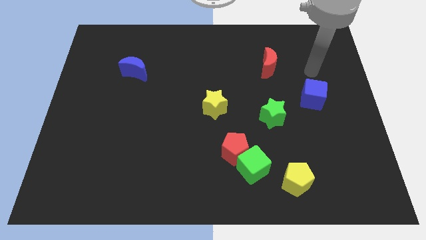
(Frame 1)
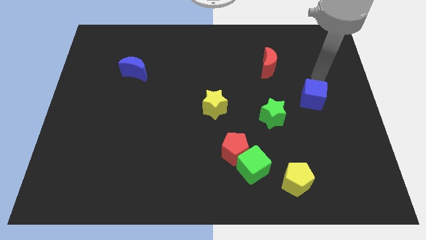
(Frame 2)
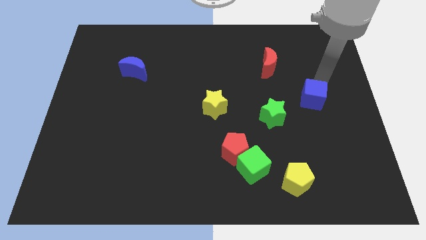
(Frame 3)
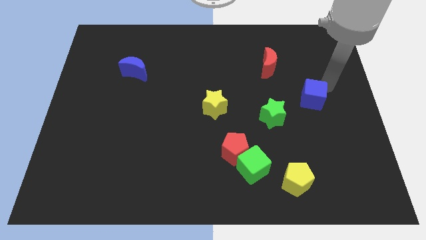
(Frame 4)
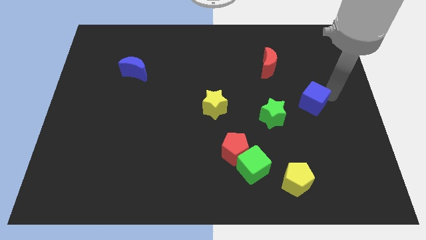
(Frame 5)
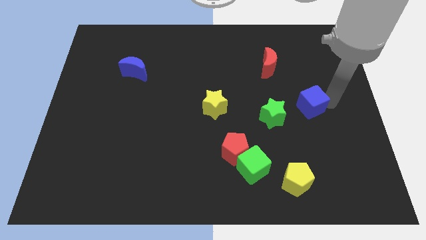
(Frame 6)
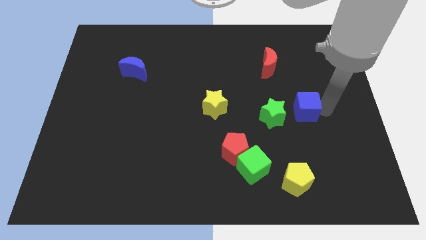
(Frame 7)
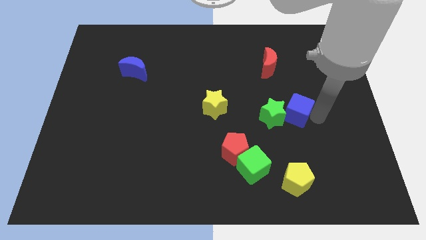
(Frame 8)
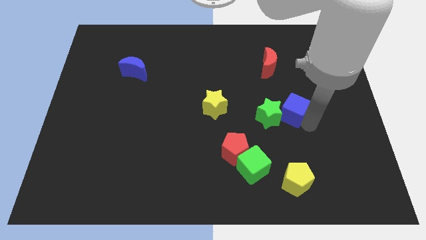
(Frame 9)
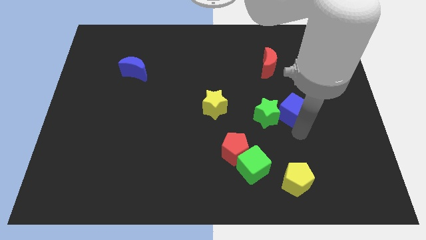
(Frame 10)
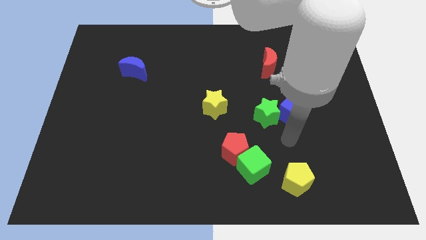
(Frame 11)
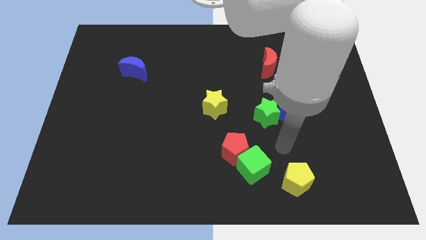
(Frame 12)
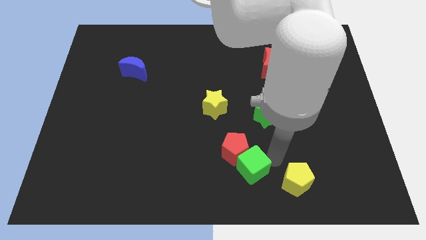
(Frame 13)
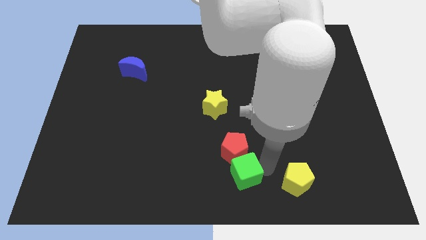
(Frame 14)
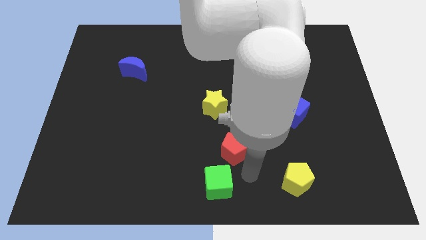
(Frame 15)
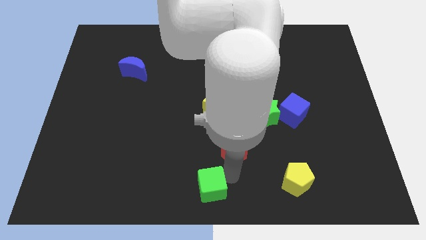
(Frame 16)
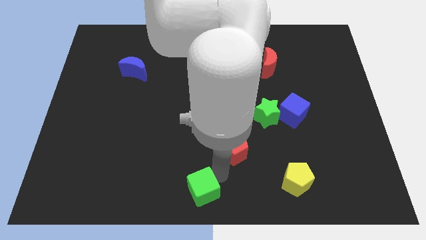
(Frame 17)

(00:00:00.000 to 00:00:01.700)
pull the red pentagon apart from the green cube

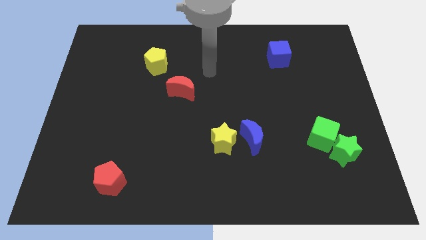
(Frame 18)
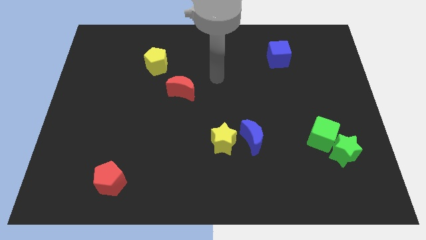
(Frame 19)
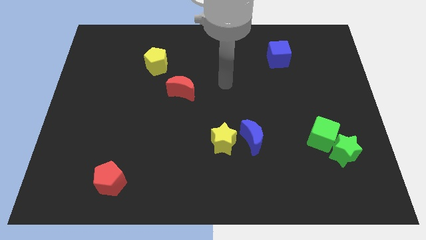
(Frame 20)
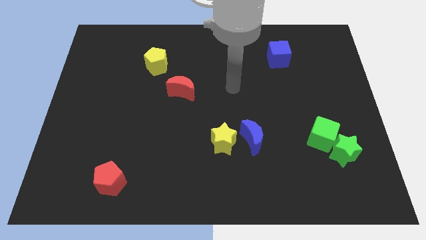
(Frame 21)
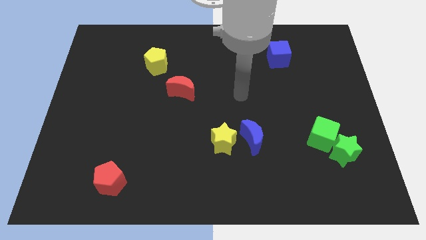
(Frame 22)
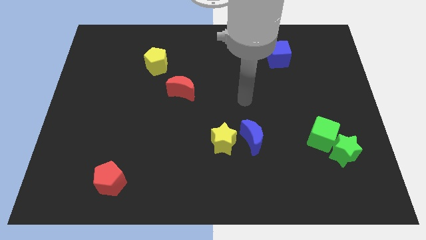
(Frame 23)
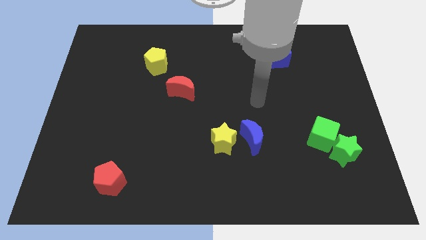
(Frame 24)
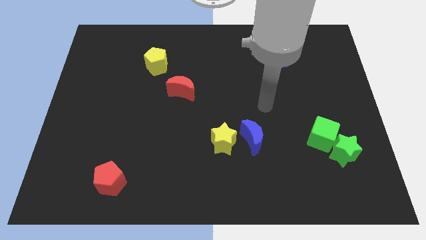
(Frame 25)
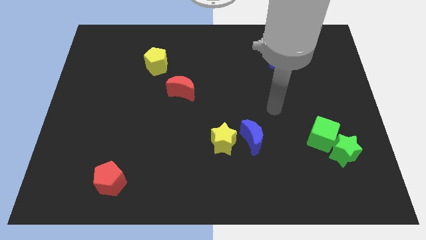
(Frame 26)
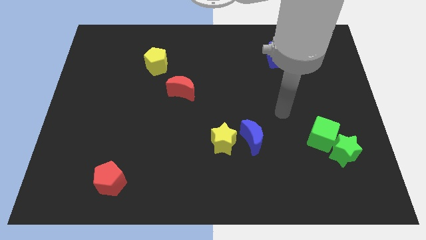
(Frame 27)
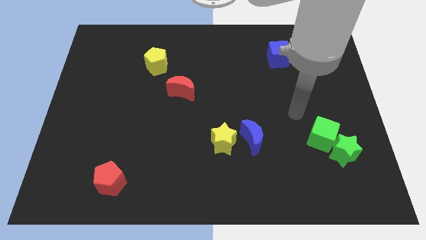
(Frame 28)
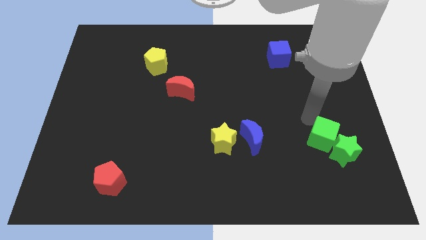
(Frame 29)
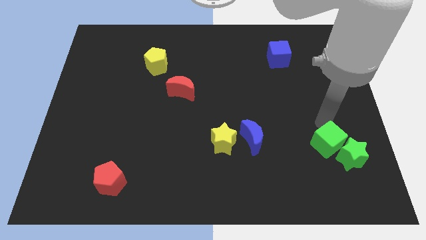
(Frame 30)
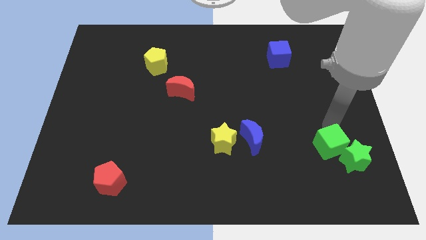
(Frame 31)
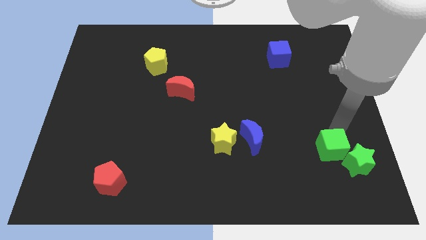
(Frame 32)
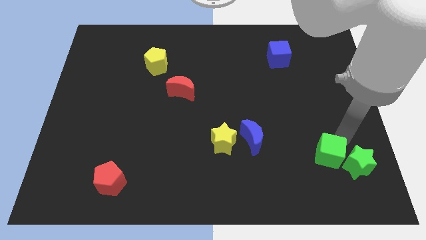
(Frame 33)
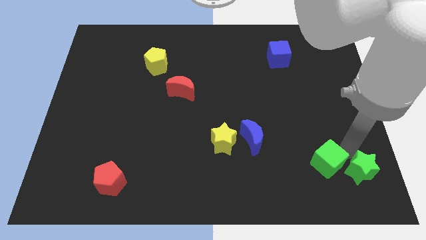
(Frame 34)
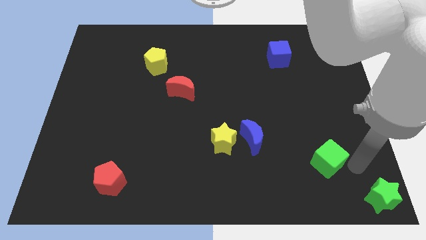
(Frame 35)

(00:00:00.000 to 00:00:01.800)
separate the green cube from the green star

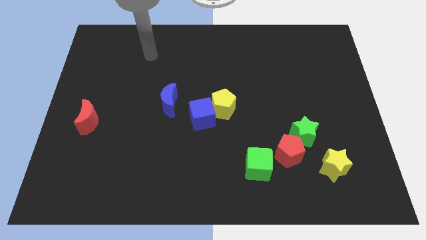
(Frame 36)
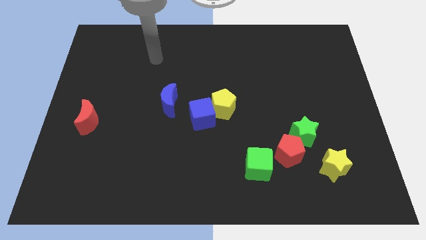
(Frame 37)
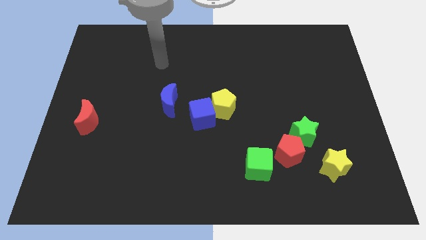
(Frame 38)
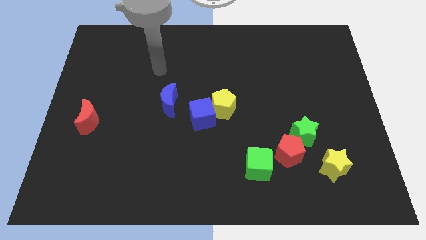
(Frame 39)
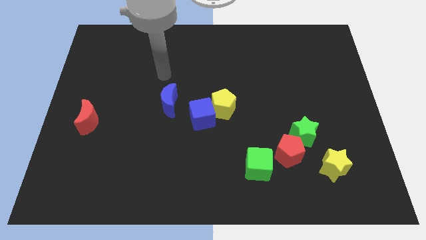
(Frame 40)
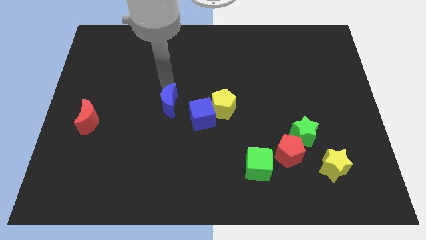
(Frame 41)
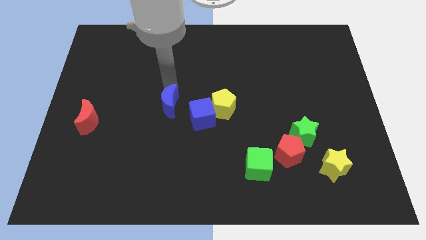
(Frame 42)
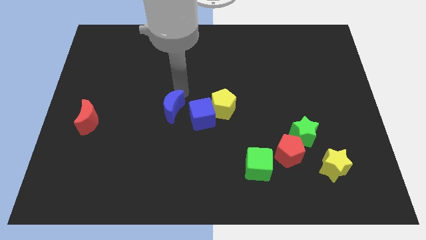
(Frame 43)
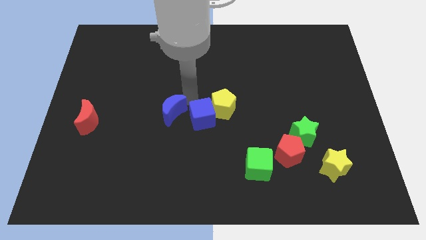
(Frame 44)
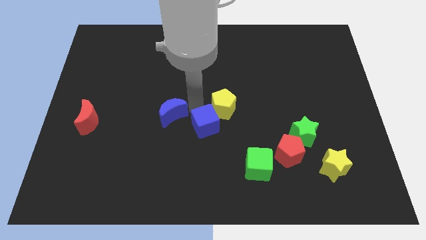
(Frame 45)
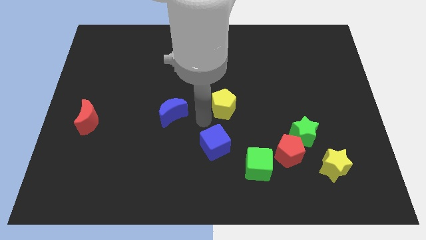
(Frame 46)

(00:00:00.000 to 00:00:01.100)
separate the yellow pentagon from the blue cube

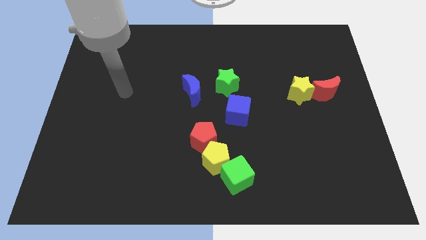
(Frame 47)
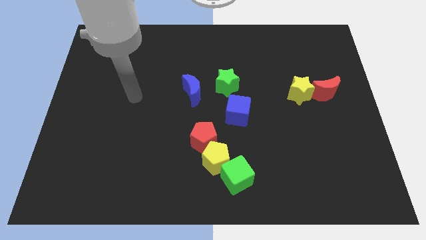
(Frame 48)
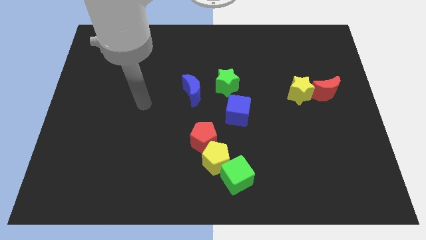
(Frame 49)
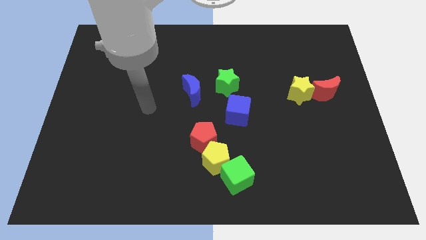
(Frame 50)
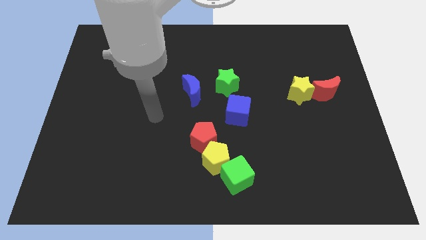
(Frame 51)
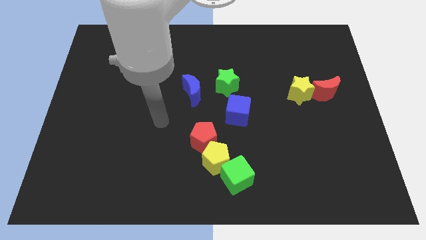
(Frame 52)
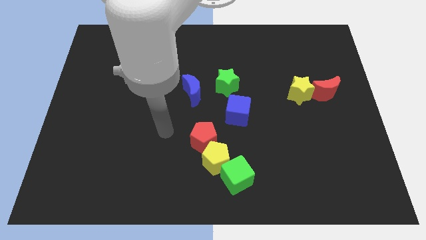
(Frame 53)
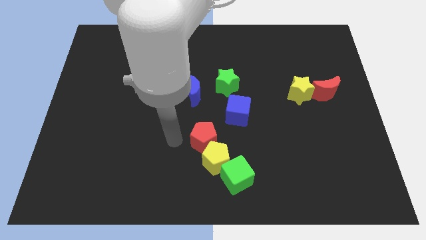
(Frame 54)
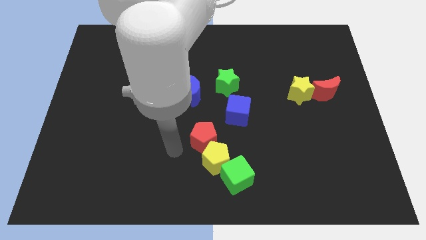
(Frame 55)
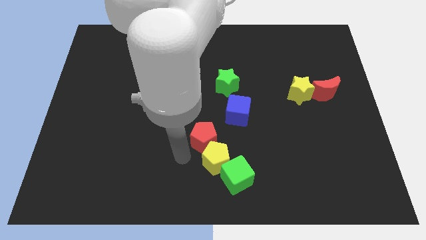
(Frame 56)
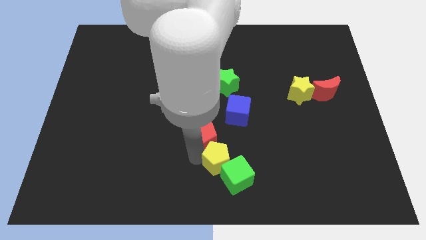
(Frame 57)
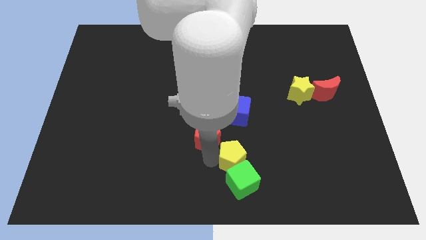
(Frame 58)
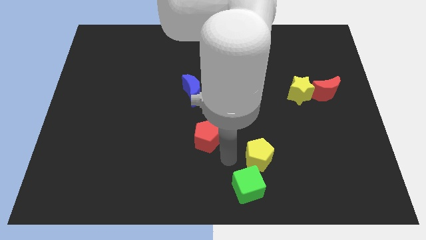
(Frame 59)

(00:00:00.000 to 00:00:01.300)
separate the red pentagon from the yellow pentagon

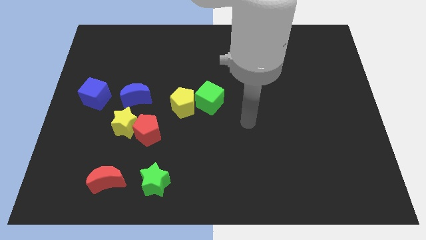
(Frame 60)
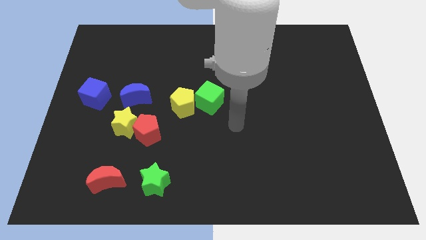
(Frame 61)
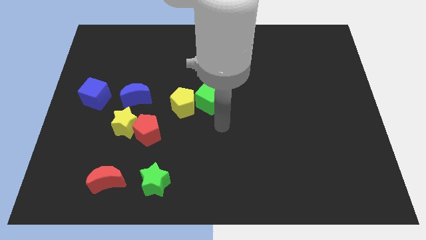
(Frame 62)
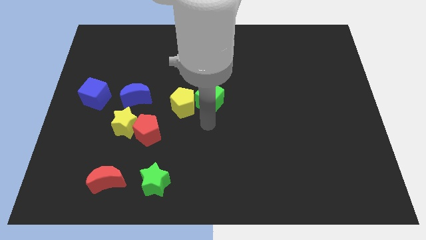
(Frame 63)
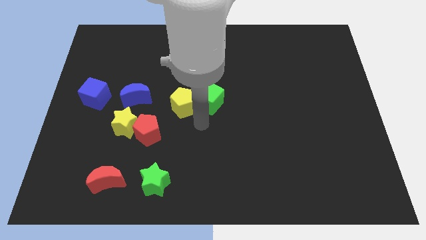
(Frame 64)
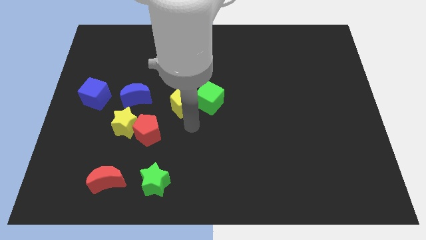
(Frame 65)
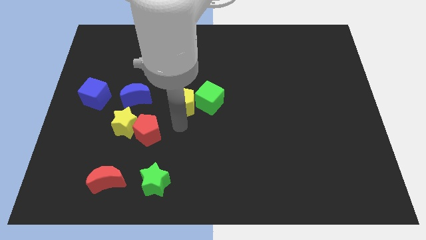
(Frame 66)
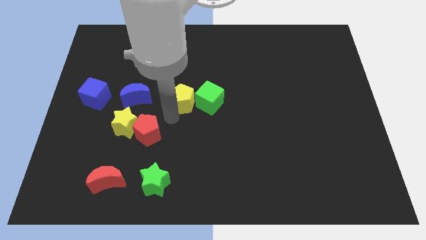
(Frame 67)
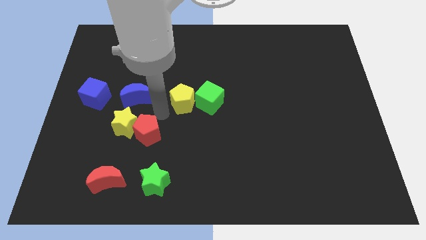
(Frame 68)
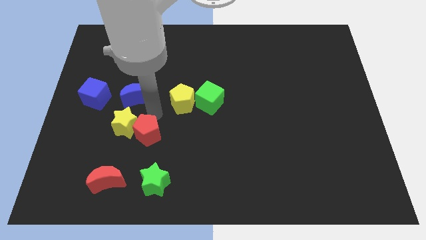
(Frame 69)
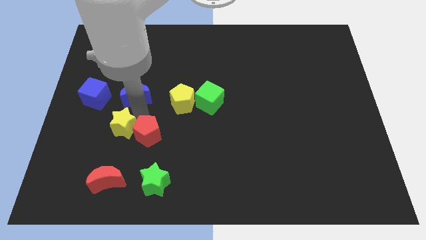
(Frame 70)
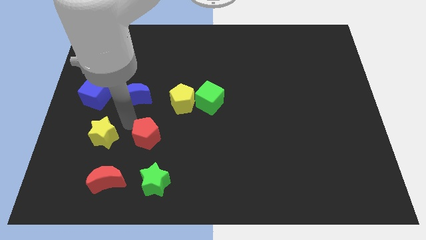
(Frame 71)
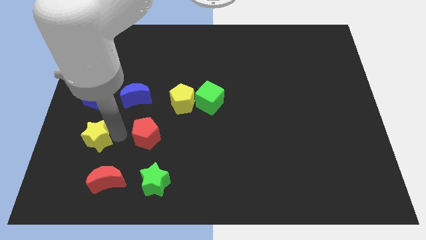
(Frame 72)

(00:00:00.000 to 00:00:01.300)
pull the red pentagon apart from the yellow star

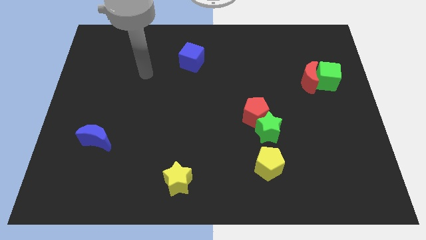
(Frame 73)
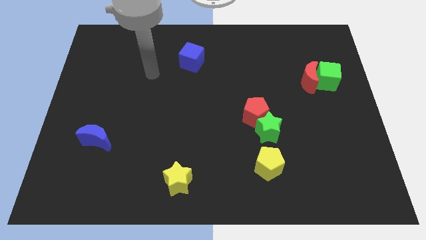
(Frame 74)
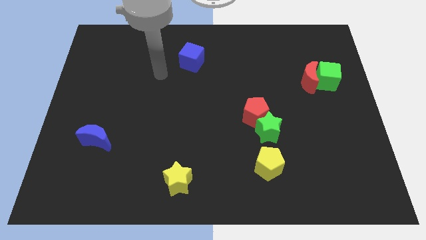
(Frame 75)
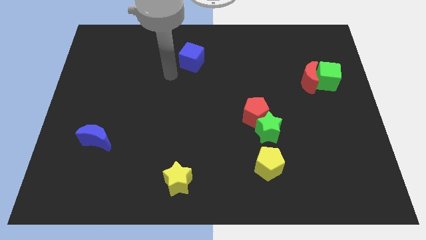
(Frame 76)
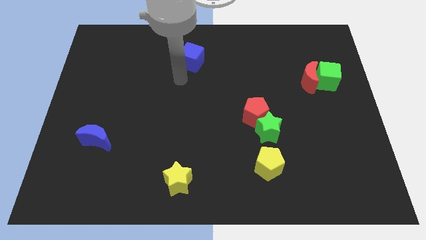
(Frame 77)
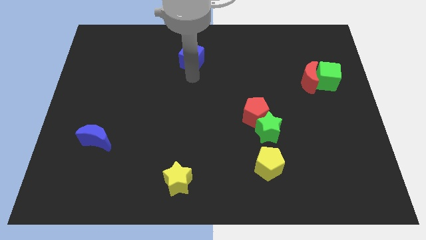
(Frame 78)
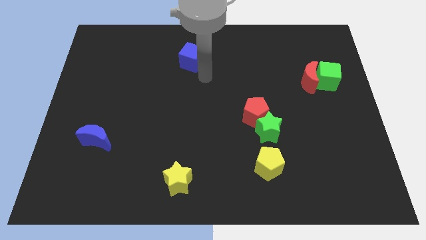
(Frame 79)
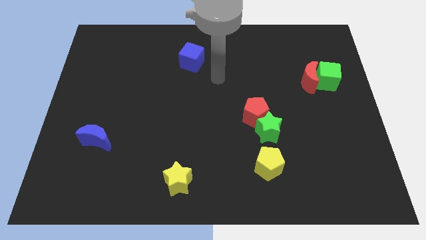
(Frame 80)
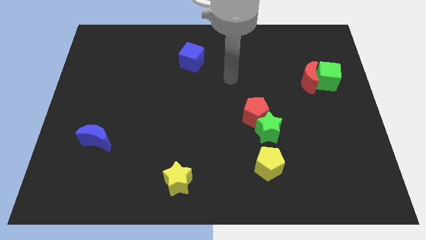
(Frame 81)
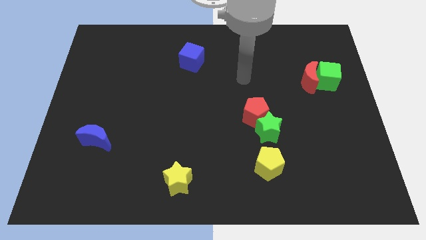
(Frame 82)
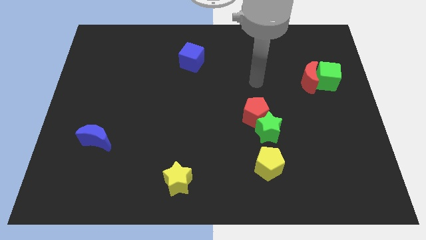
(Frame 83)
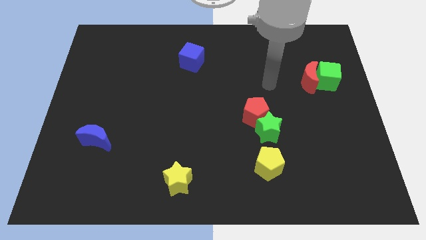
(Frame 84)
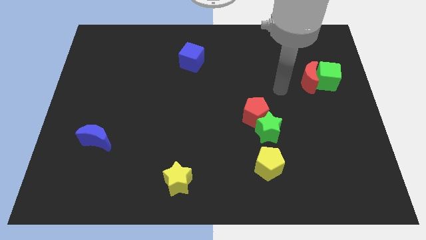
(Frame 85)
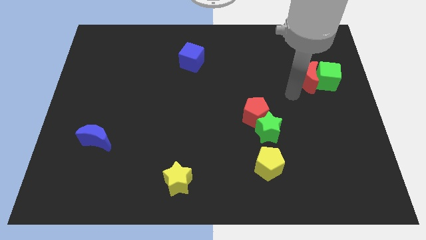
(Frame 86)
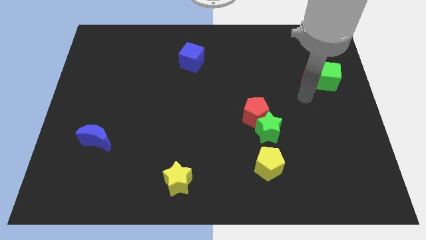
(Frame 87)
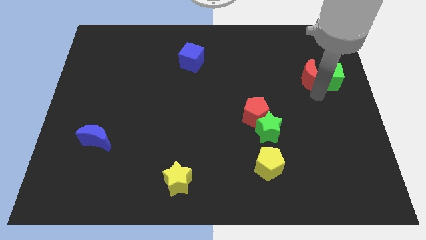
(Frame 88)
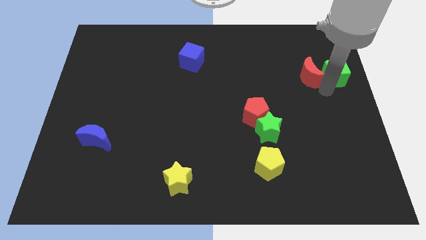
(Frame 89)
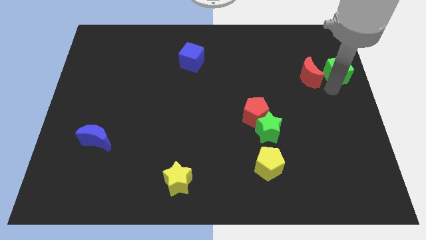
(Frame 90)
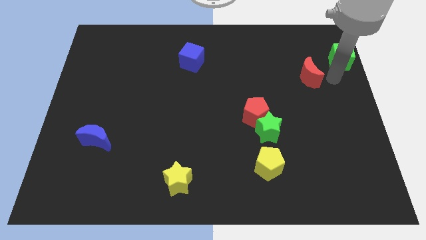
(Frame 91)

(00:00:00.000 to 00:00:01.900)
move the red moon away from the green cube

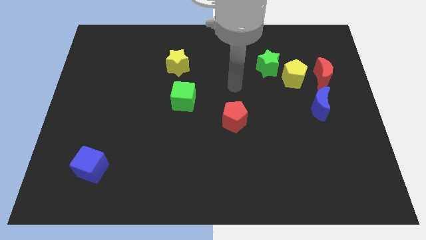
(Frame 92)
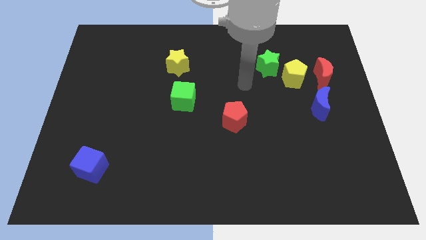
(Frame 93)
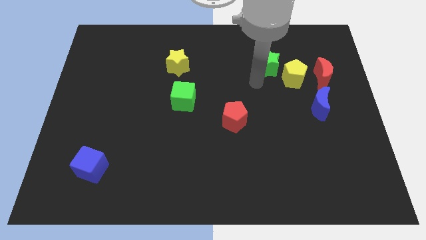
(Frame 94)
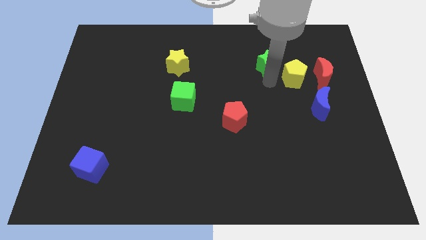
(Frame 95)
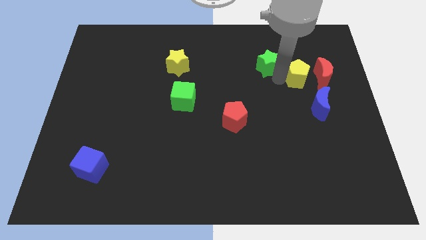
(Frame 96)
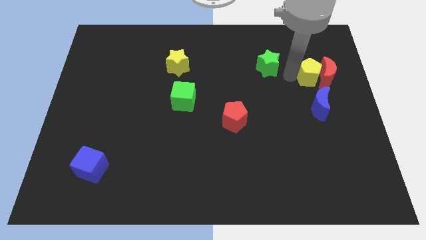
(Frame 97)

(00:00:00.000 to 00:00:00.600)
pull the green star apart from the yellow pentagon
